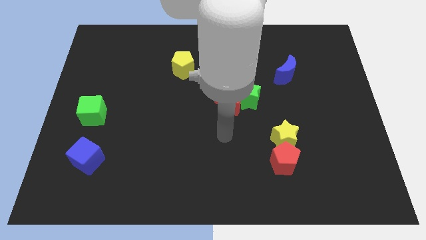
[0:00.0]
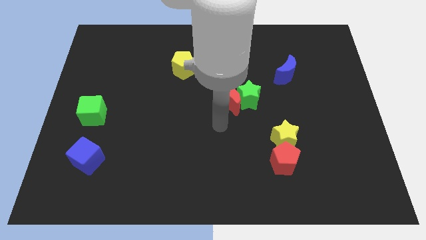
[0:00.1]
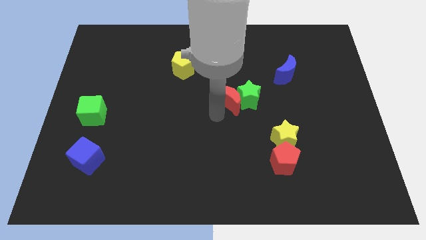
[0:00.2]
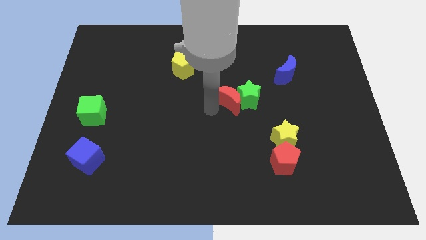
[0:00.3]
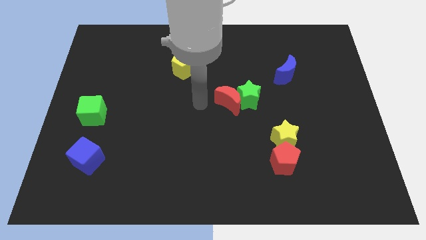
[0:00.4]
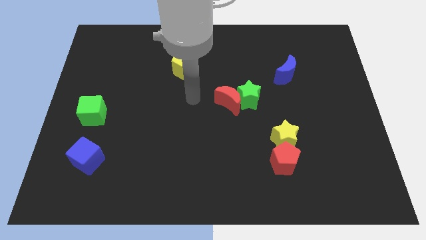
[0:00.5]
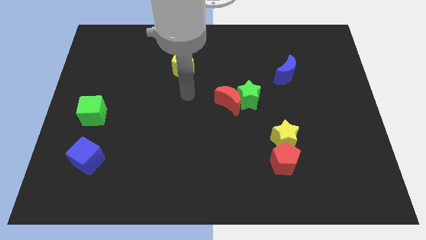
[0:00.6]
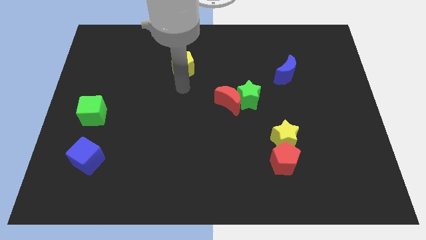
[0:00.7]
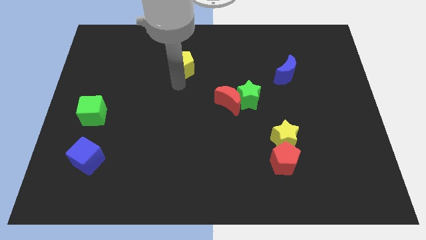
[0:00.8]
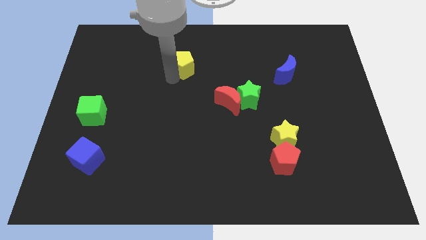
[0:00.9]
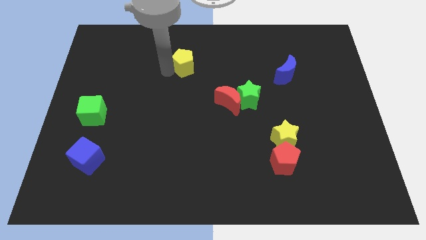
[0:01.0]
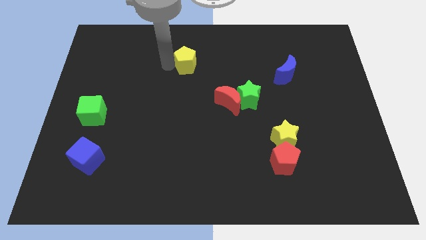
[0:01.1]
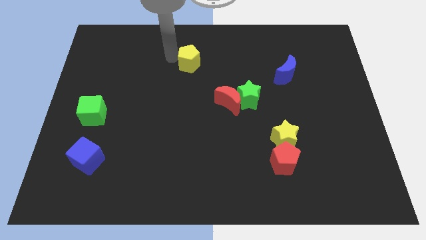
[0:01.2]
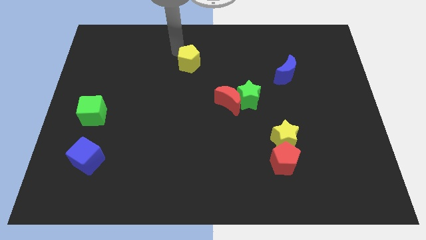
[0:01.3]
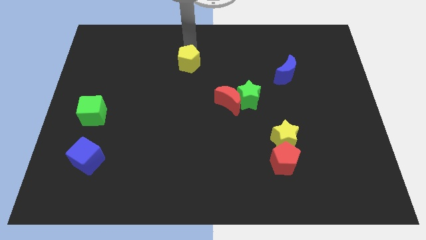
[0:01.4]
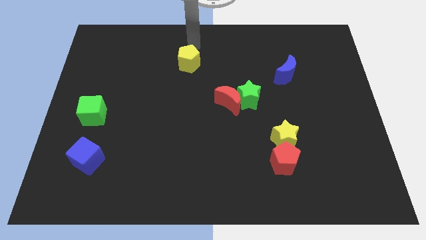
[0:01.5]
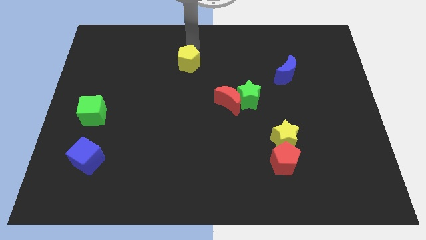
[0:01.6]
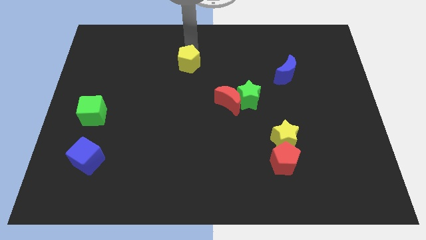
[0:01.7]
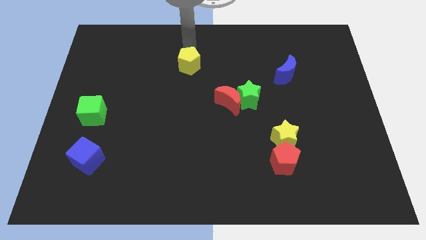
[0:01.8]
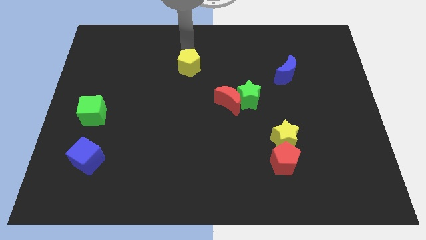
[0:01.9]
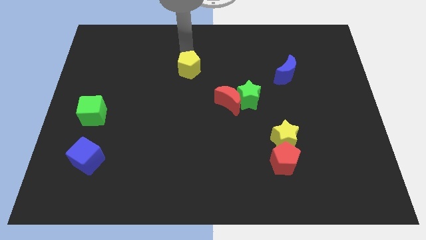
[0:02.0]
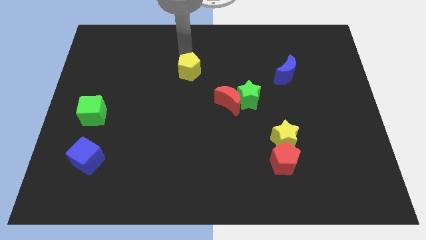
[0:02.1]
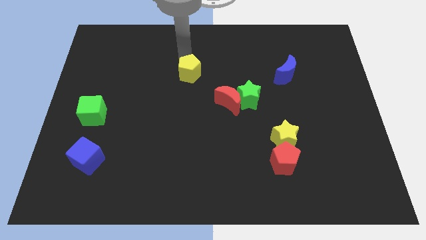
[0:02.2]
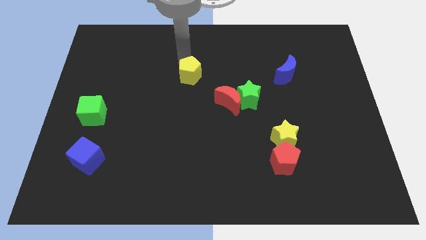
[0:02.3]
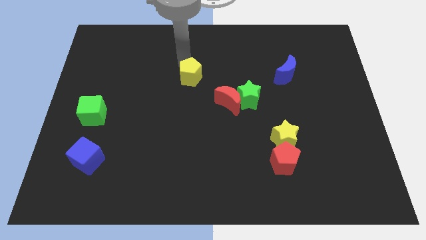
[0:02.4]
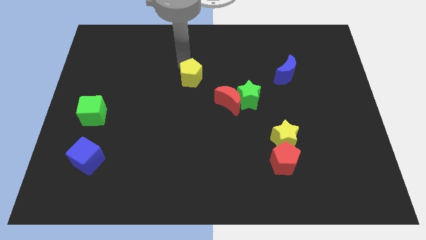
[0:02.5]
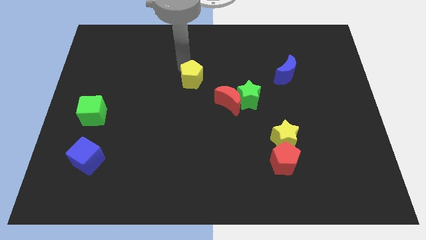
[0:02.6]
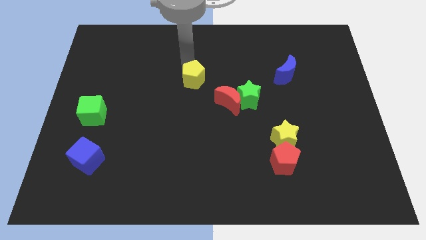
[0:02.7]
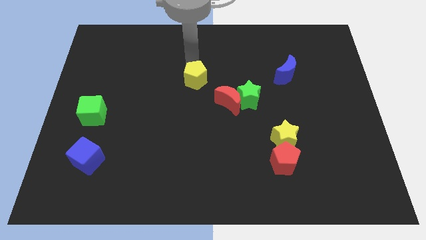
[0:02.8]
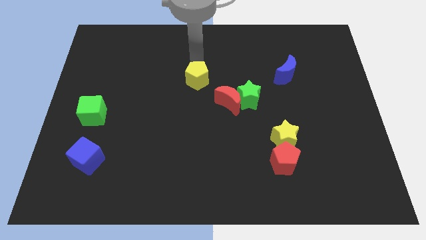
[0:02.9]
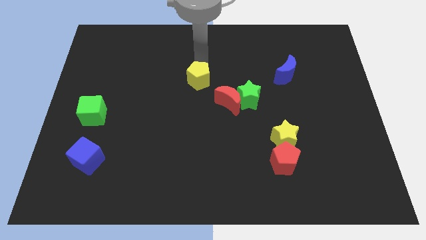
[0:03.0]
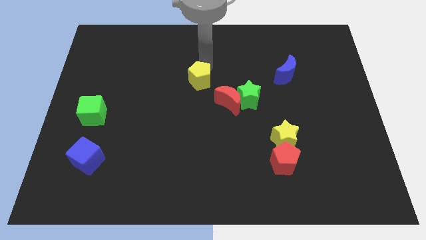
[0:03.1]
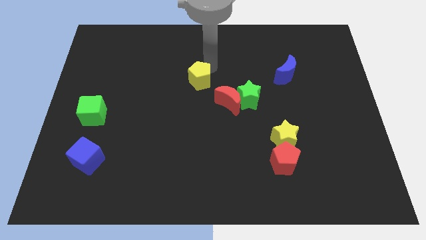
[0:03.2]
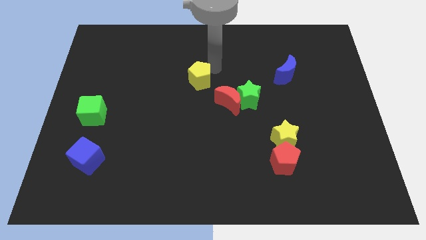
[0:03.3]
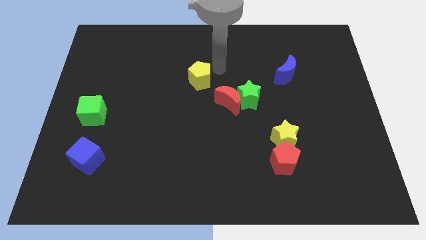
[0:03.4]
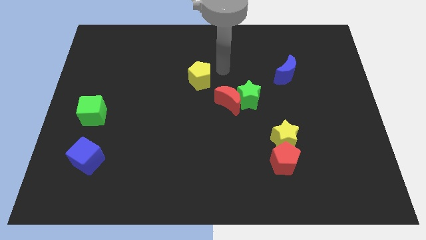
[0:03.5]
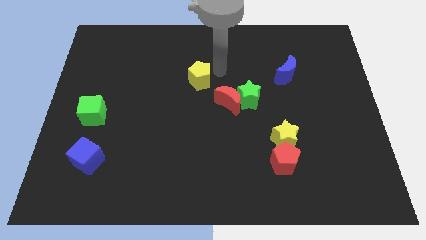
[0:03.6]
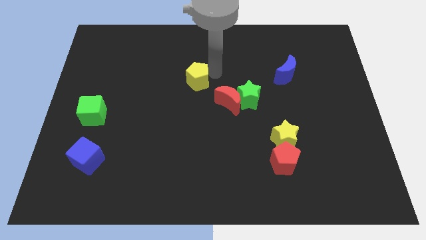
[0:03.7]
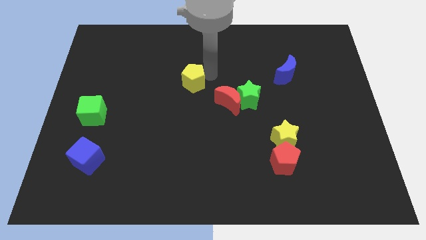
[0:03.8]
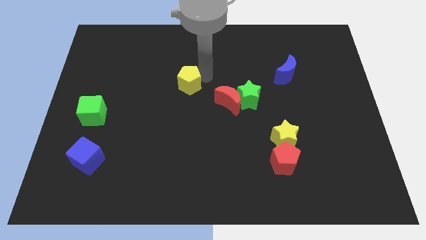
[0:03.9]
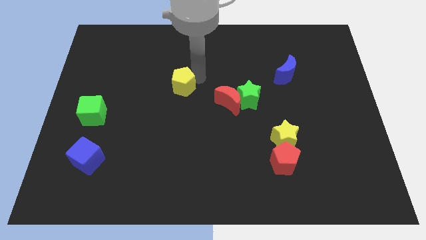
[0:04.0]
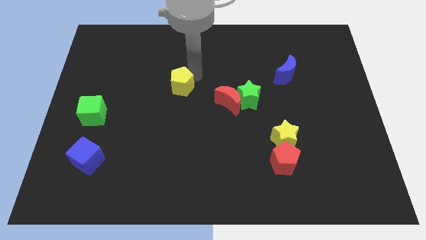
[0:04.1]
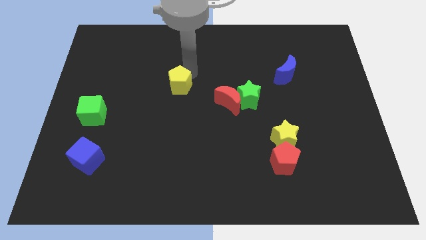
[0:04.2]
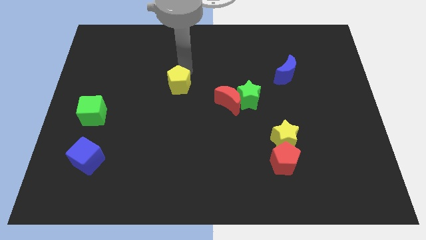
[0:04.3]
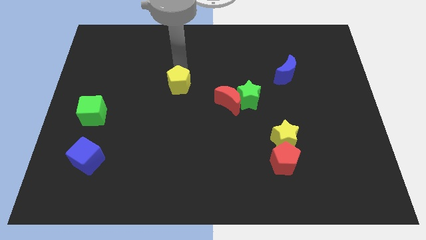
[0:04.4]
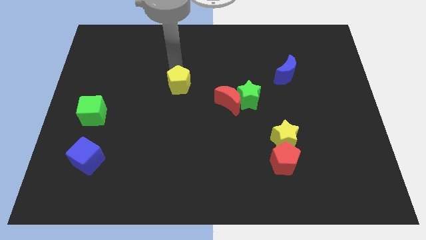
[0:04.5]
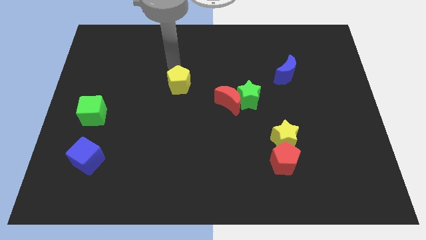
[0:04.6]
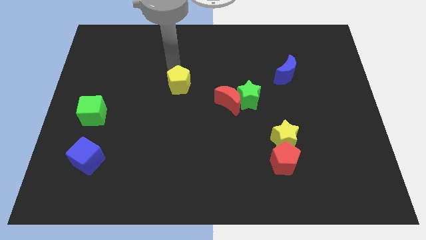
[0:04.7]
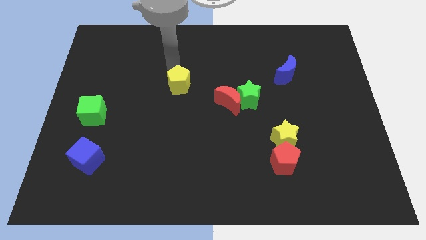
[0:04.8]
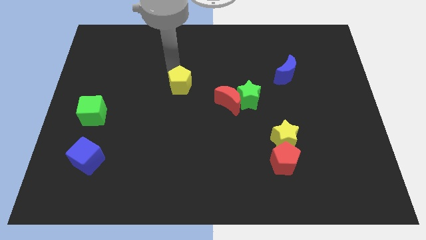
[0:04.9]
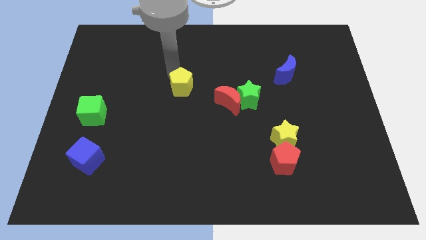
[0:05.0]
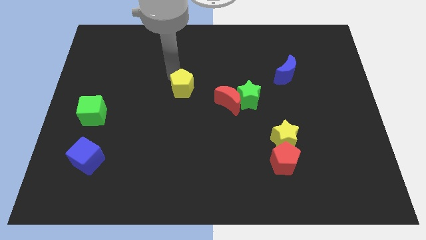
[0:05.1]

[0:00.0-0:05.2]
push the yellow pentagon a little bit downwards

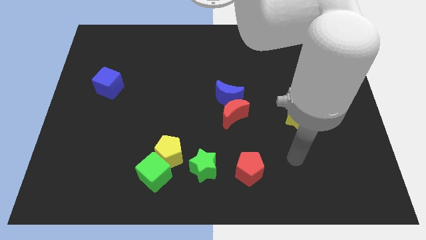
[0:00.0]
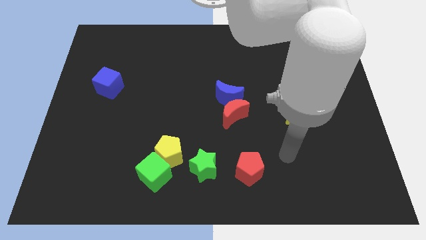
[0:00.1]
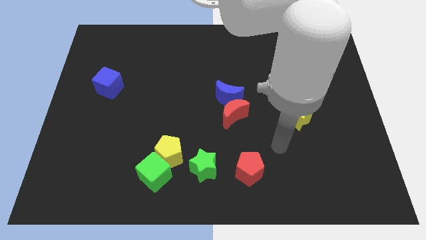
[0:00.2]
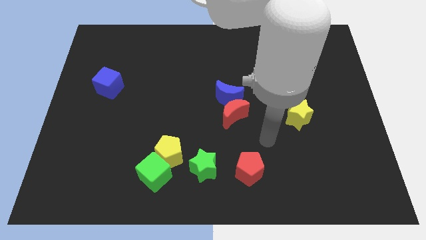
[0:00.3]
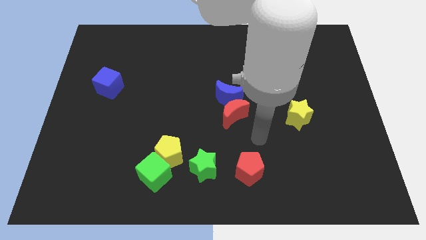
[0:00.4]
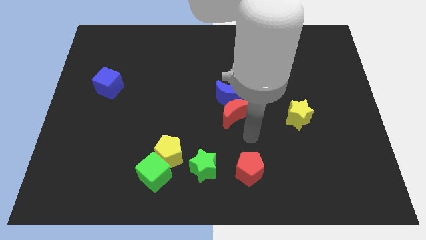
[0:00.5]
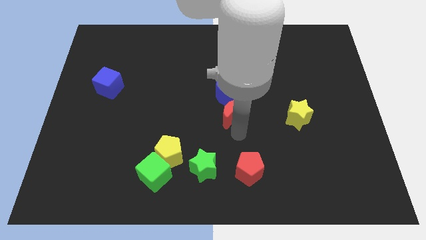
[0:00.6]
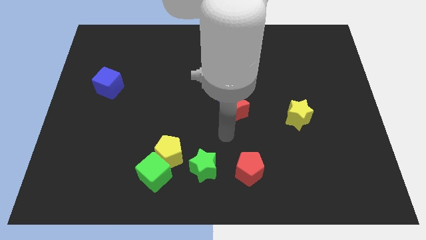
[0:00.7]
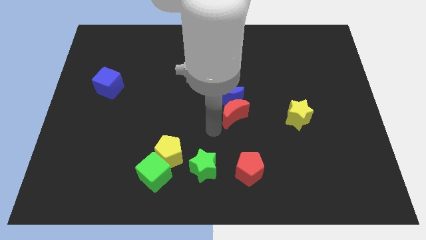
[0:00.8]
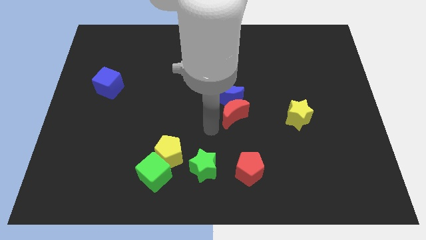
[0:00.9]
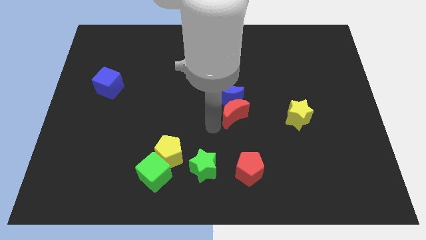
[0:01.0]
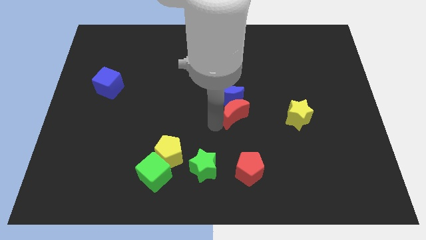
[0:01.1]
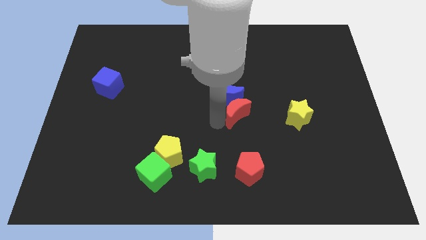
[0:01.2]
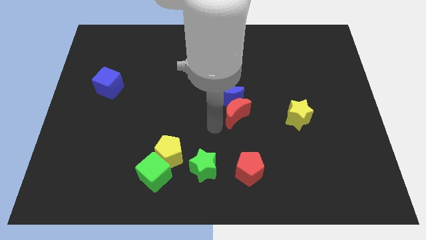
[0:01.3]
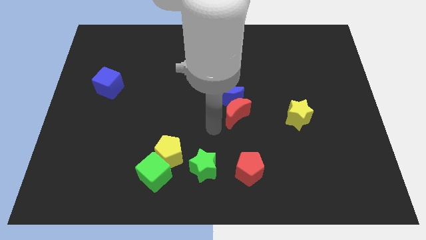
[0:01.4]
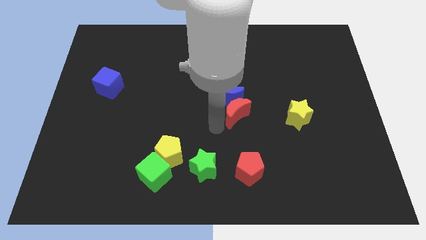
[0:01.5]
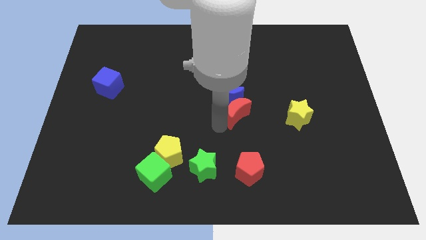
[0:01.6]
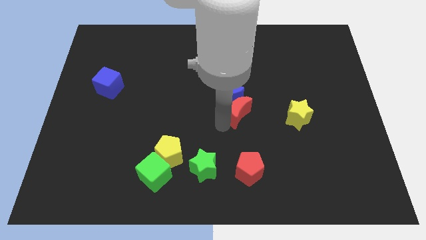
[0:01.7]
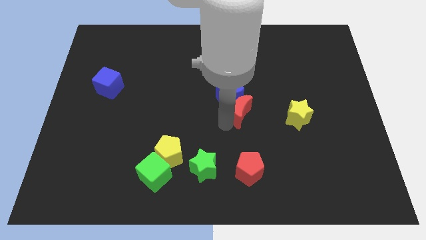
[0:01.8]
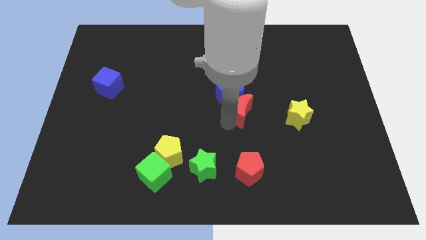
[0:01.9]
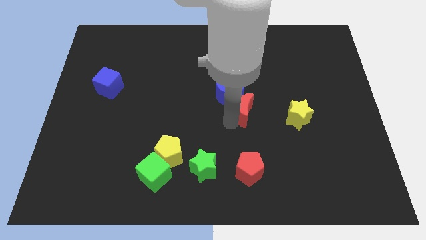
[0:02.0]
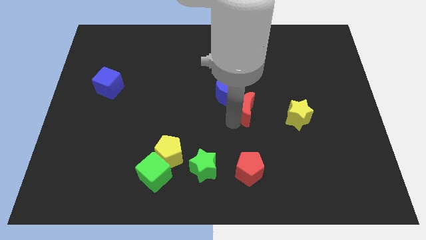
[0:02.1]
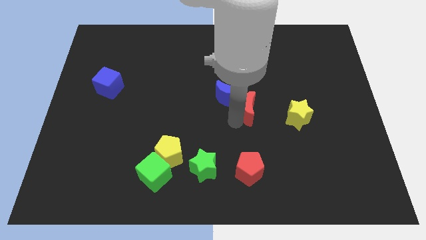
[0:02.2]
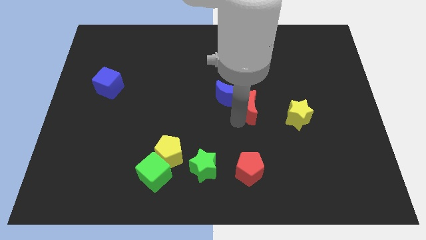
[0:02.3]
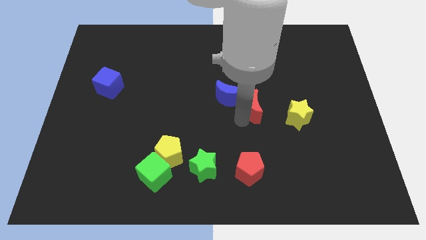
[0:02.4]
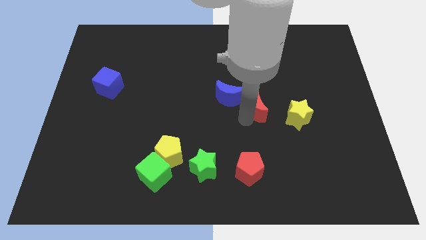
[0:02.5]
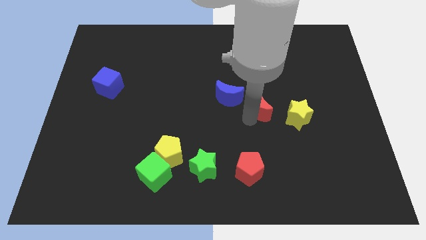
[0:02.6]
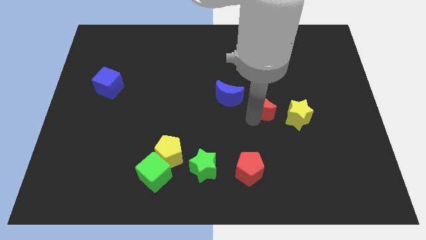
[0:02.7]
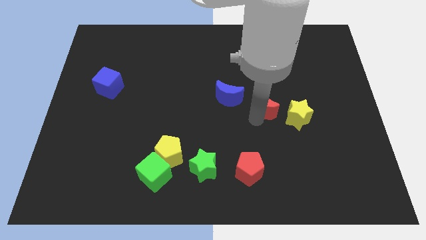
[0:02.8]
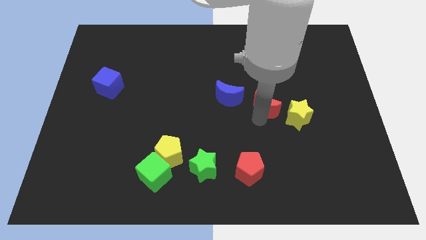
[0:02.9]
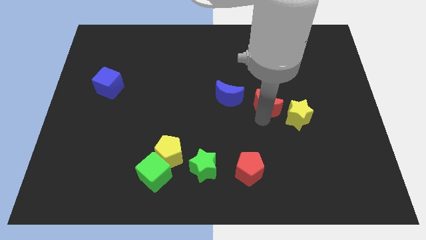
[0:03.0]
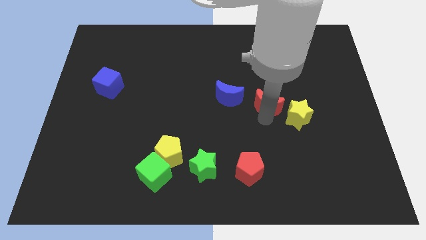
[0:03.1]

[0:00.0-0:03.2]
slide the red moon a bit upwards and to the right diagonally
